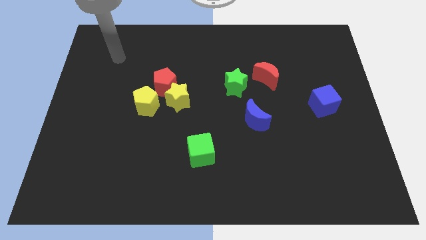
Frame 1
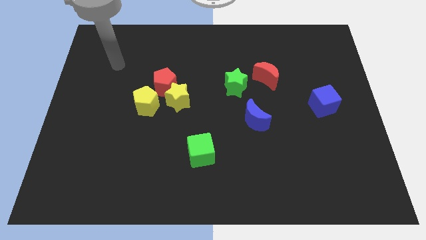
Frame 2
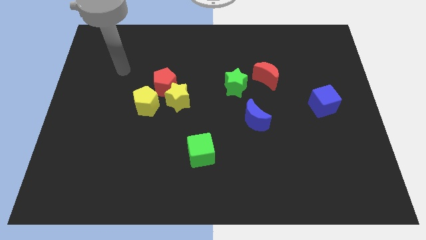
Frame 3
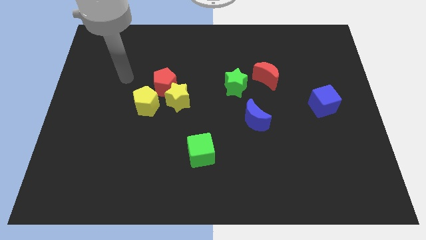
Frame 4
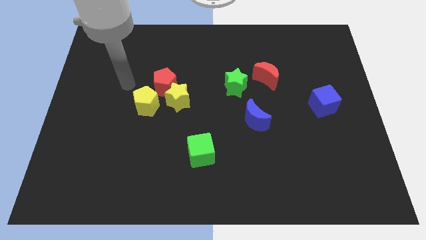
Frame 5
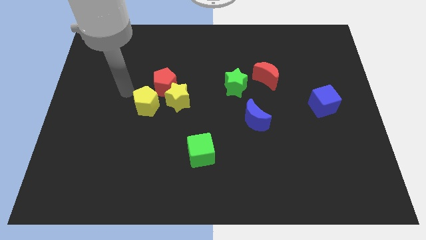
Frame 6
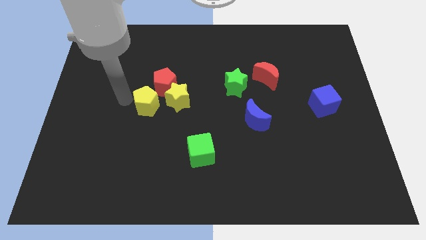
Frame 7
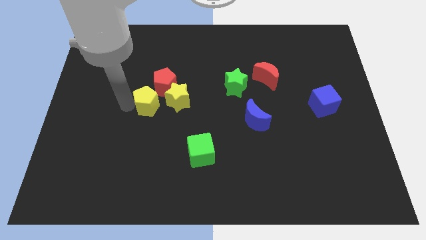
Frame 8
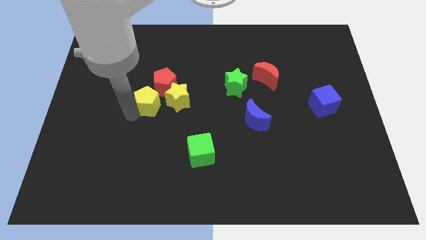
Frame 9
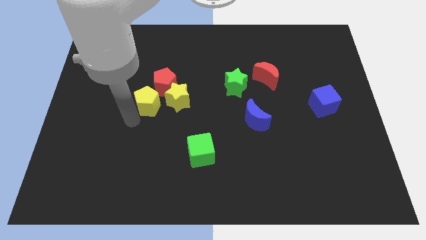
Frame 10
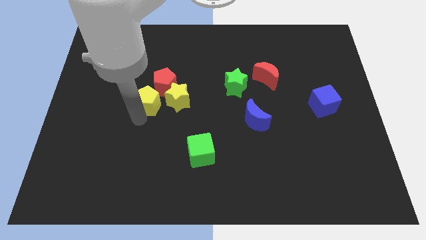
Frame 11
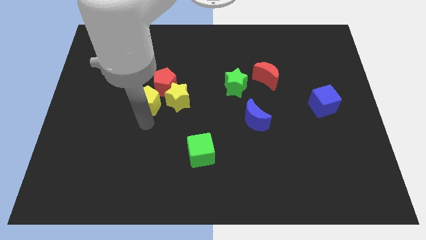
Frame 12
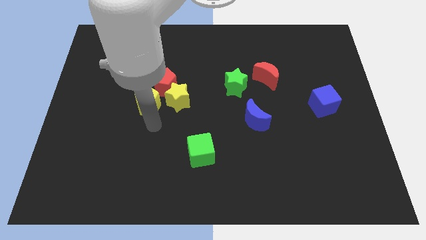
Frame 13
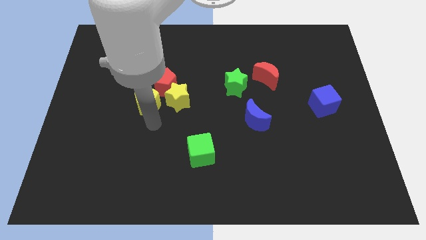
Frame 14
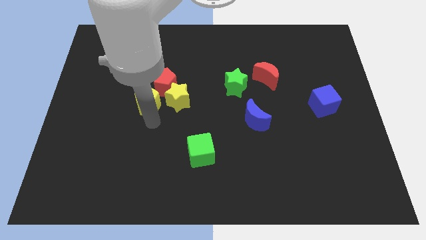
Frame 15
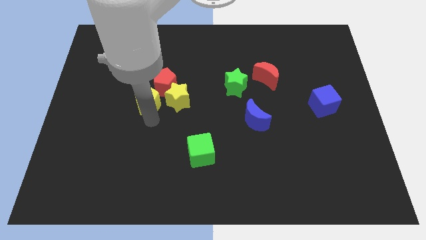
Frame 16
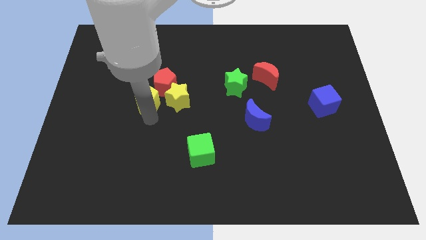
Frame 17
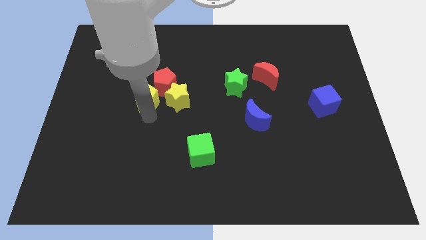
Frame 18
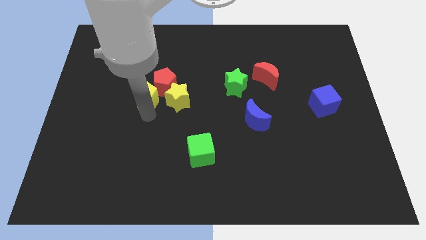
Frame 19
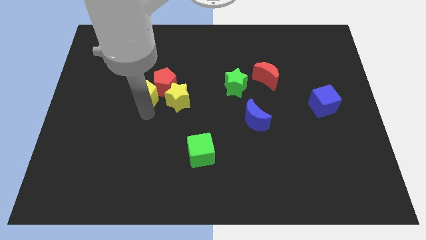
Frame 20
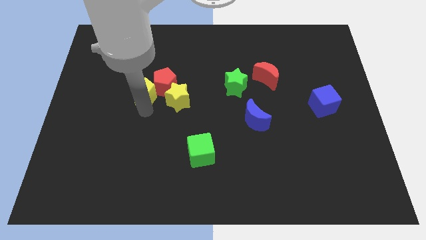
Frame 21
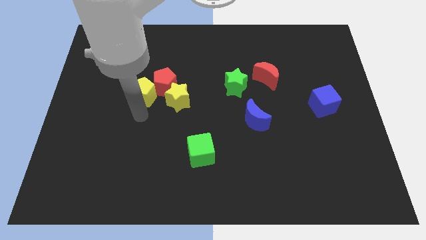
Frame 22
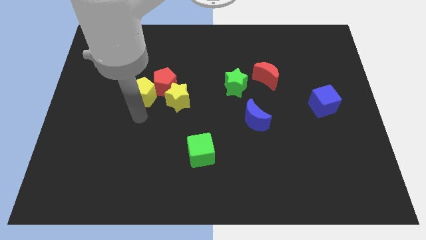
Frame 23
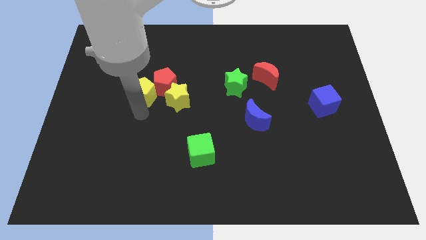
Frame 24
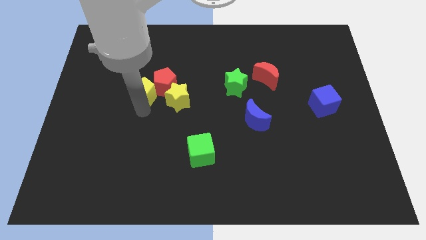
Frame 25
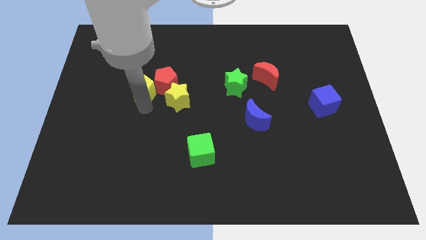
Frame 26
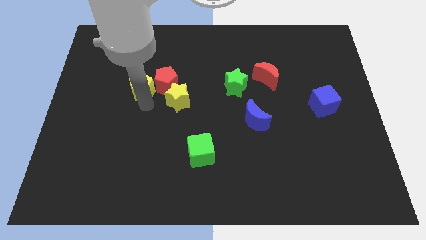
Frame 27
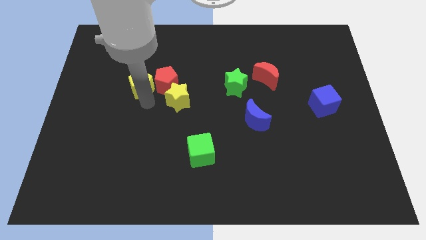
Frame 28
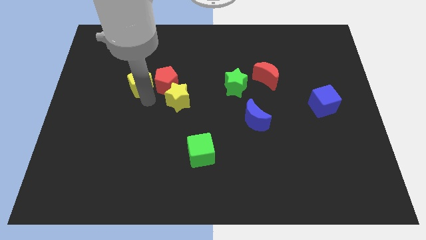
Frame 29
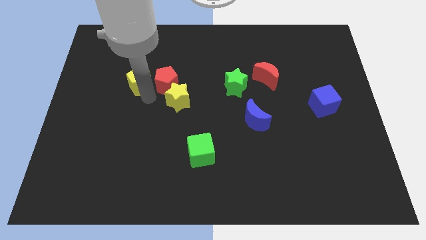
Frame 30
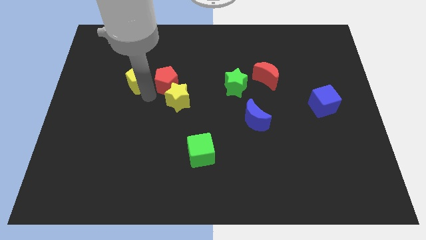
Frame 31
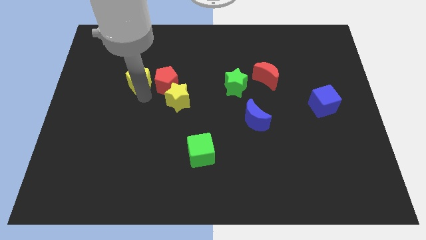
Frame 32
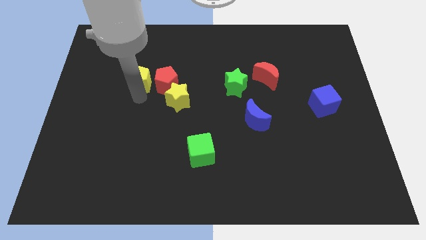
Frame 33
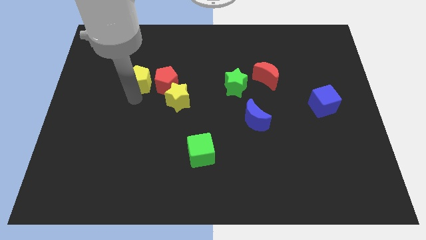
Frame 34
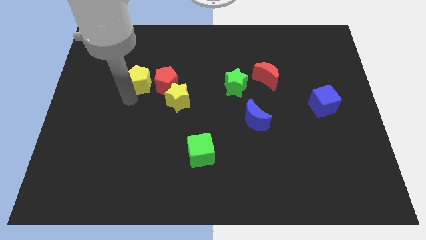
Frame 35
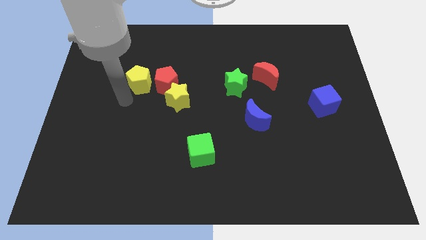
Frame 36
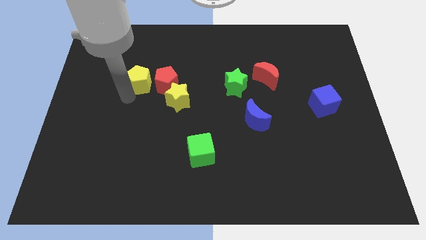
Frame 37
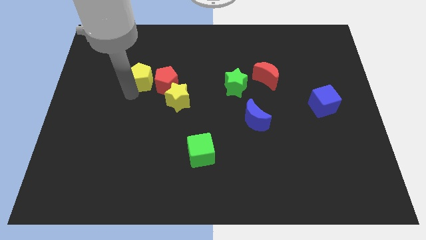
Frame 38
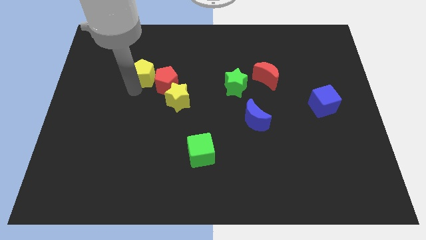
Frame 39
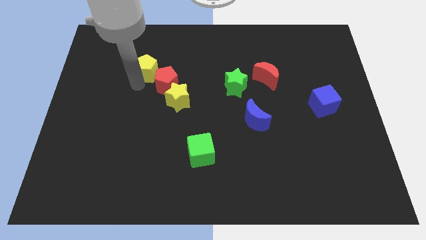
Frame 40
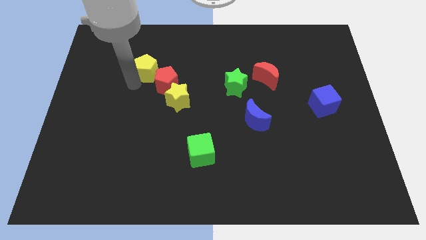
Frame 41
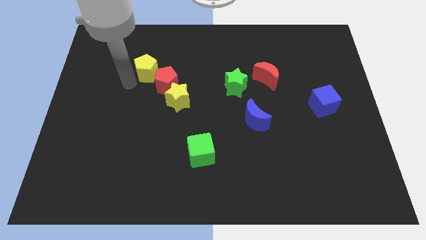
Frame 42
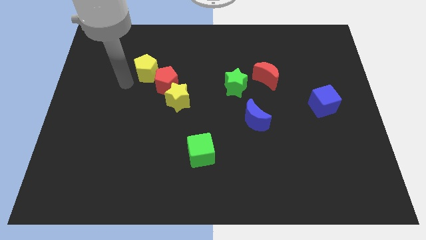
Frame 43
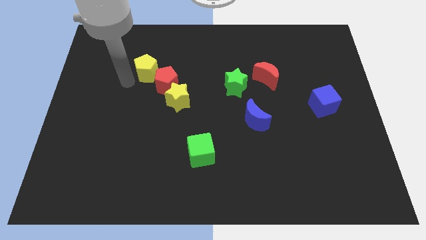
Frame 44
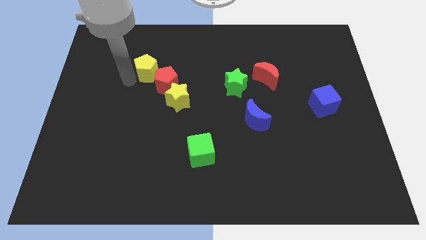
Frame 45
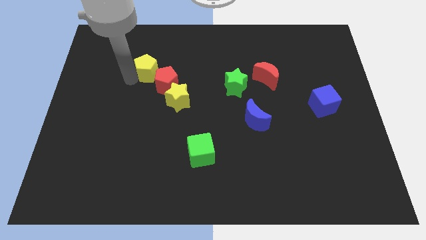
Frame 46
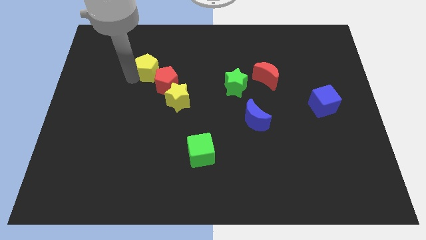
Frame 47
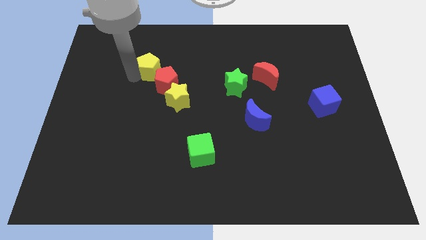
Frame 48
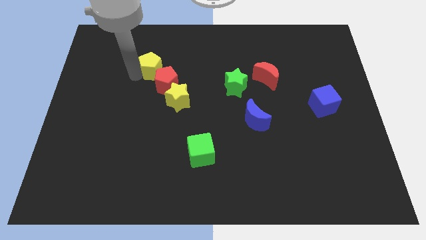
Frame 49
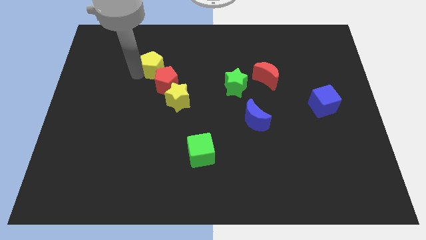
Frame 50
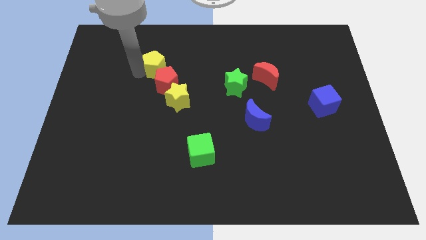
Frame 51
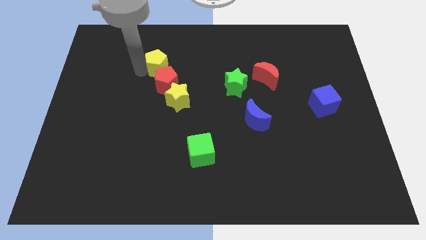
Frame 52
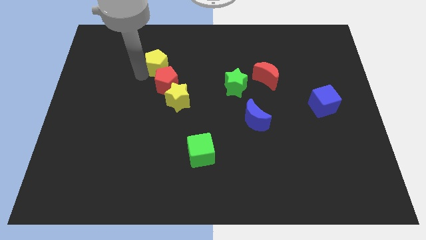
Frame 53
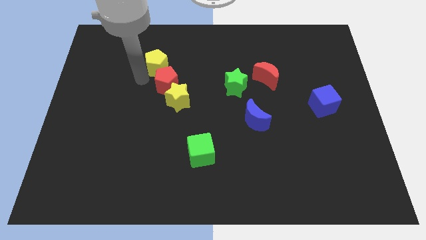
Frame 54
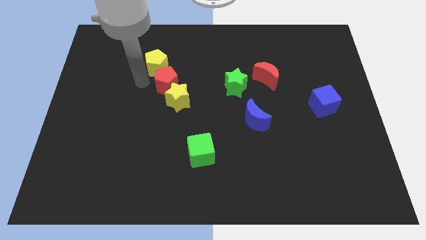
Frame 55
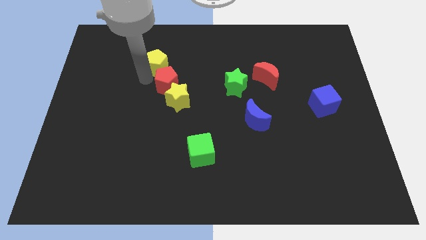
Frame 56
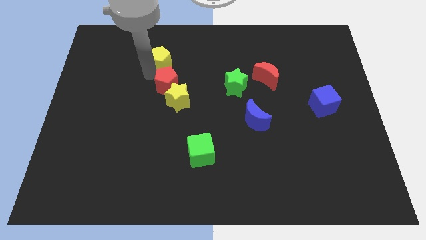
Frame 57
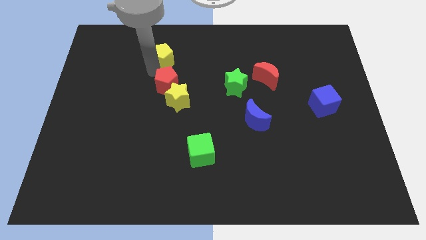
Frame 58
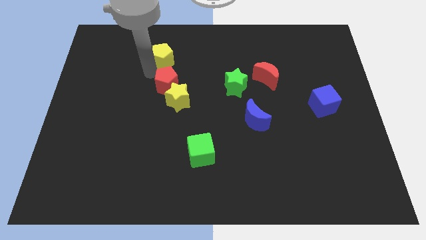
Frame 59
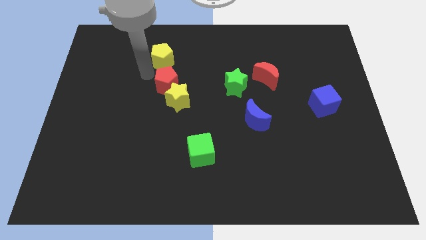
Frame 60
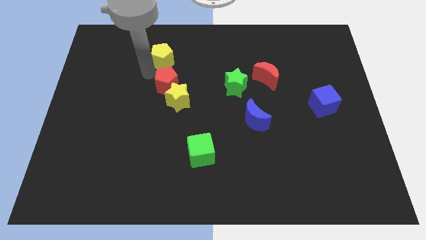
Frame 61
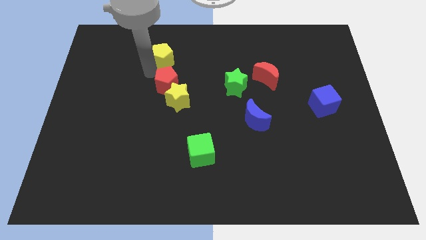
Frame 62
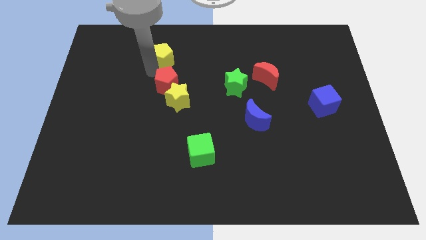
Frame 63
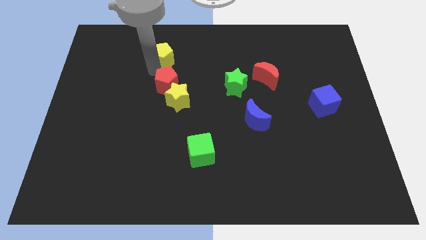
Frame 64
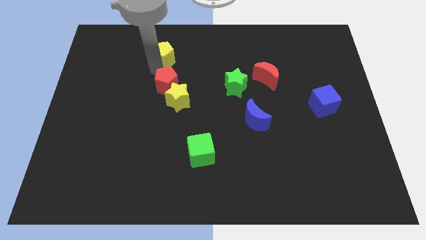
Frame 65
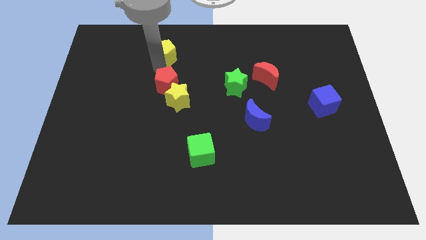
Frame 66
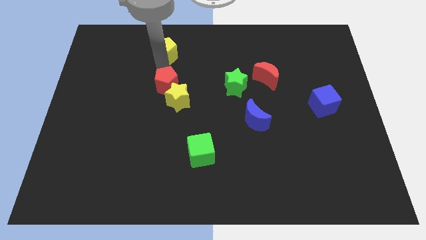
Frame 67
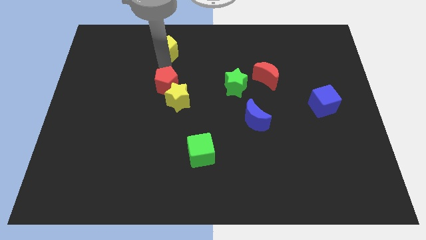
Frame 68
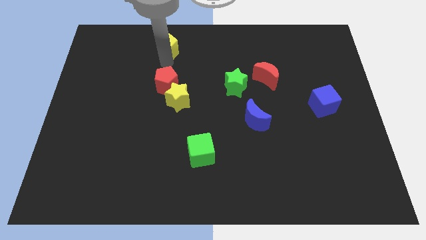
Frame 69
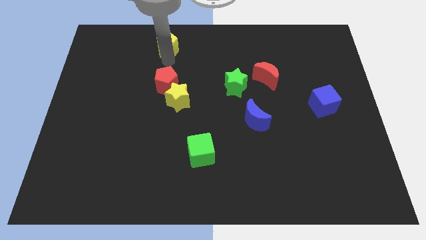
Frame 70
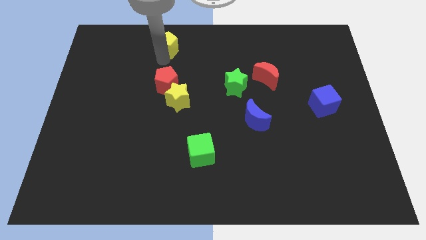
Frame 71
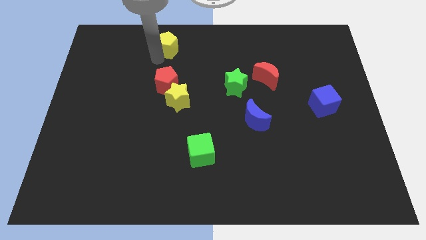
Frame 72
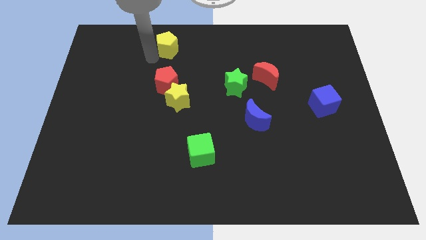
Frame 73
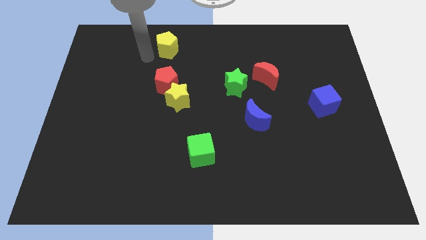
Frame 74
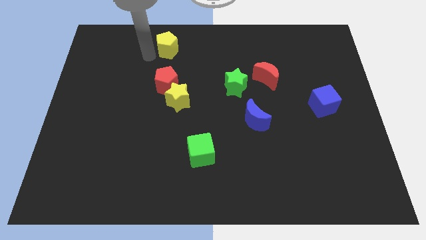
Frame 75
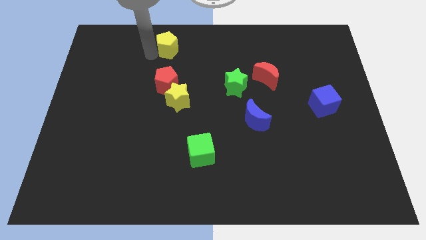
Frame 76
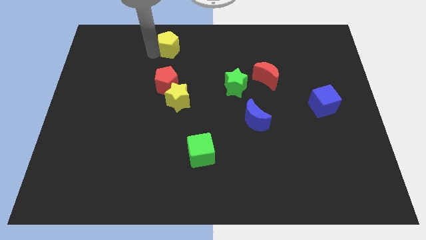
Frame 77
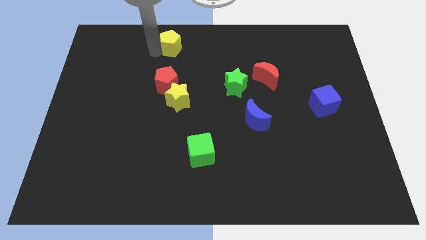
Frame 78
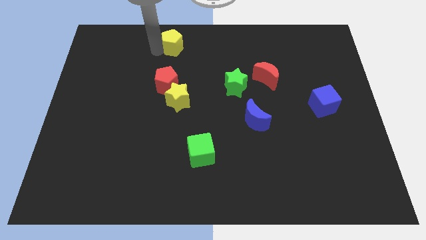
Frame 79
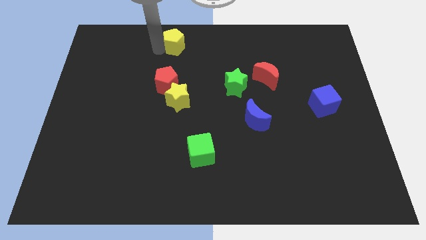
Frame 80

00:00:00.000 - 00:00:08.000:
slide the yellow pentagon to the top

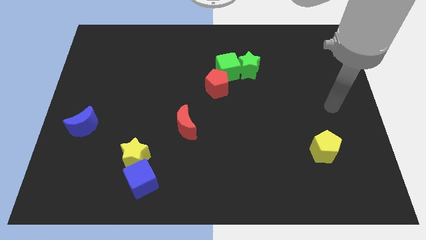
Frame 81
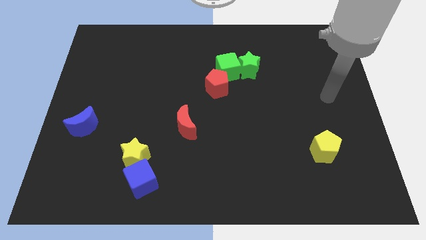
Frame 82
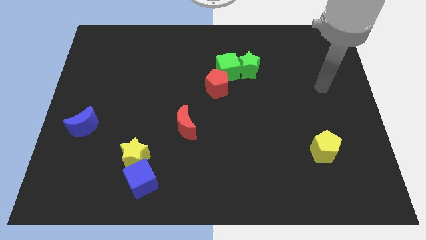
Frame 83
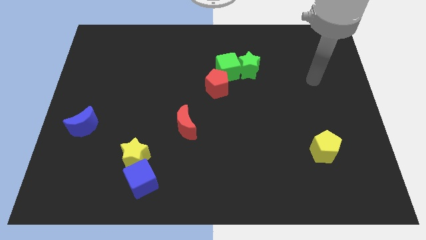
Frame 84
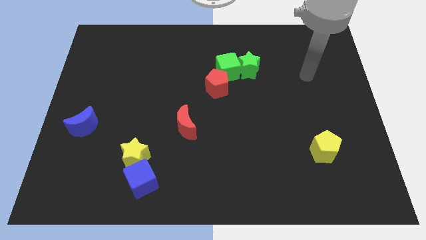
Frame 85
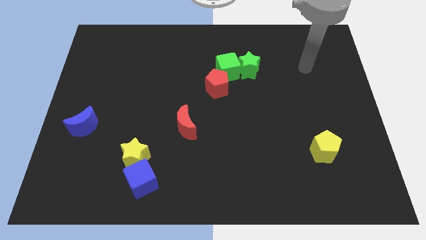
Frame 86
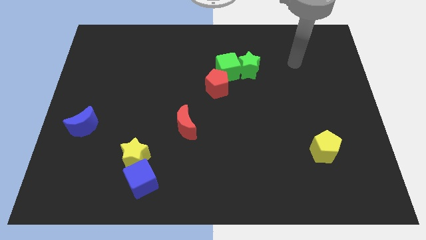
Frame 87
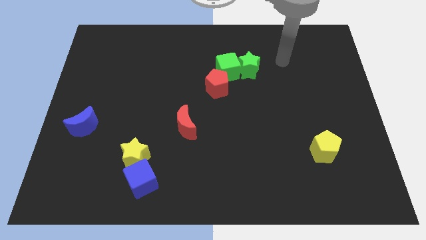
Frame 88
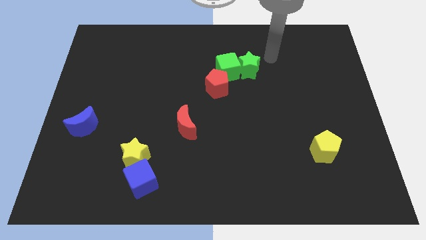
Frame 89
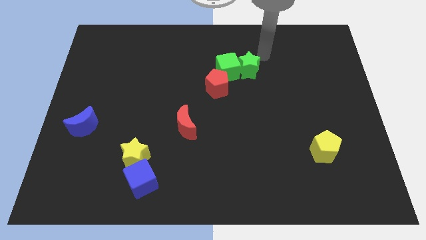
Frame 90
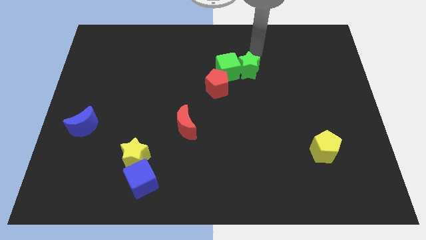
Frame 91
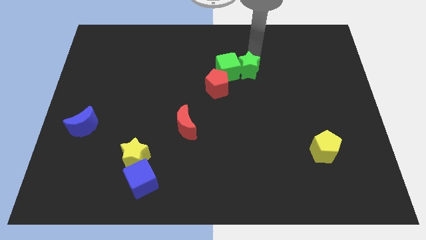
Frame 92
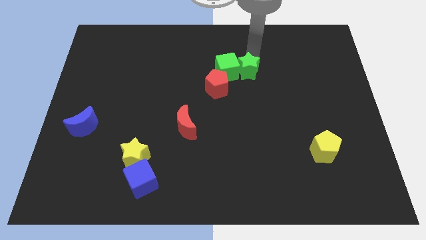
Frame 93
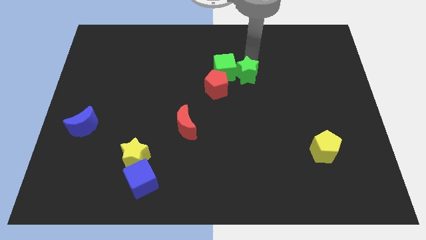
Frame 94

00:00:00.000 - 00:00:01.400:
slide the green star to the center
